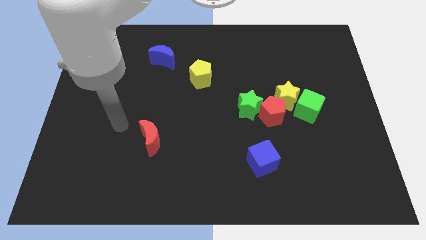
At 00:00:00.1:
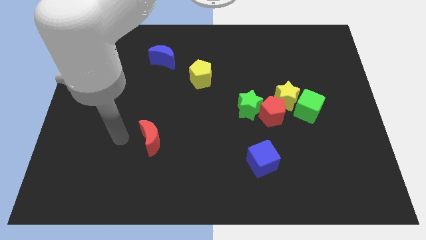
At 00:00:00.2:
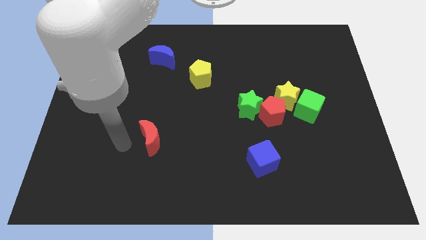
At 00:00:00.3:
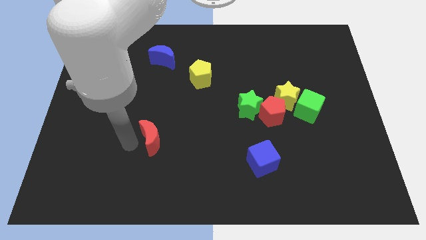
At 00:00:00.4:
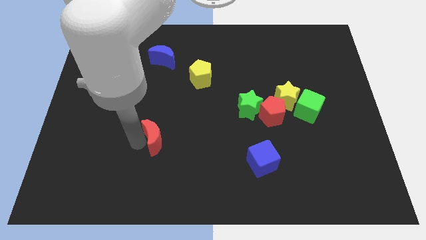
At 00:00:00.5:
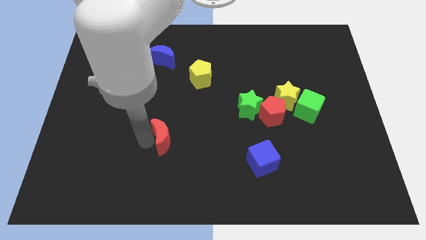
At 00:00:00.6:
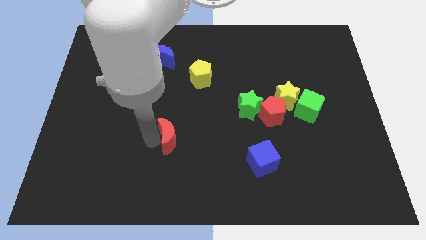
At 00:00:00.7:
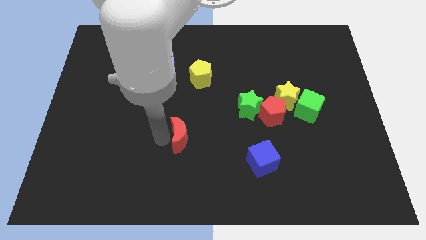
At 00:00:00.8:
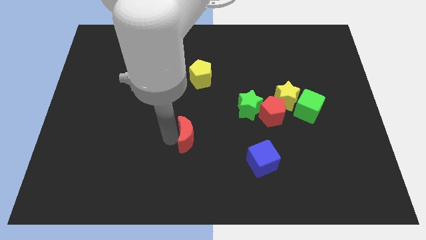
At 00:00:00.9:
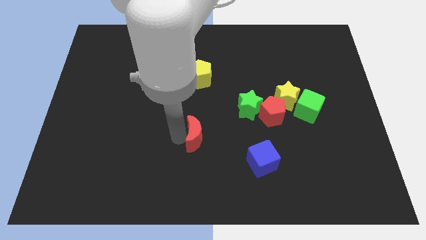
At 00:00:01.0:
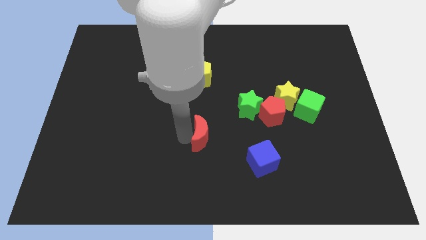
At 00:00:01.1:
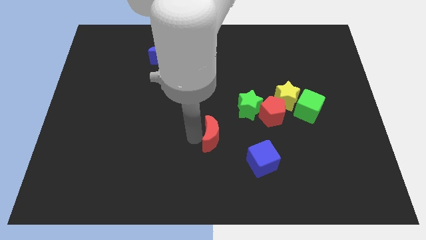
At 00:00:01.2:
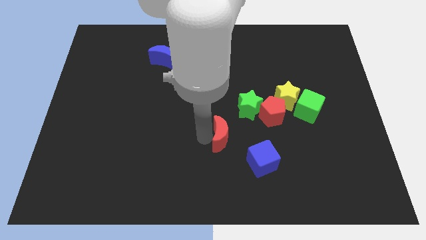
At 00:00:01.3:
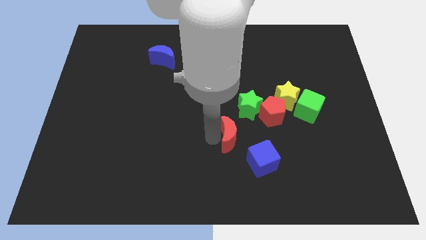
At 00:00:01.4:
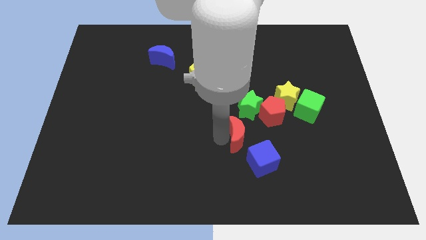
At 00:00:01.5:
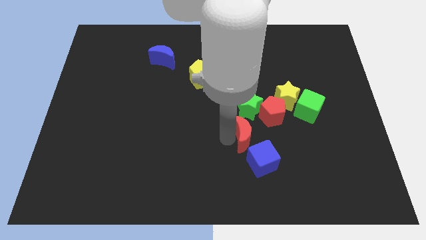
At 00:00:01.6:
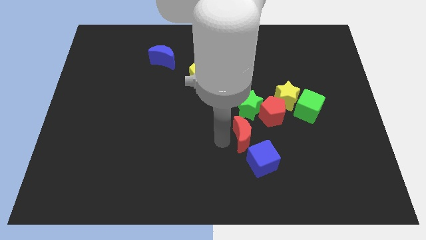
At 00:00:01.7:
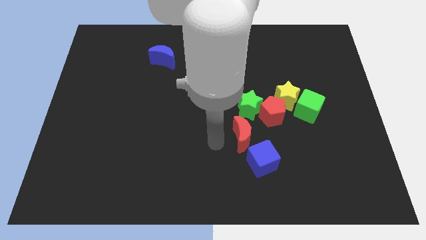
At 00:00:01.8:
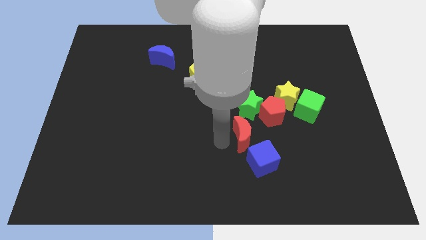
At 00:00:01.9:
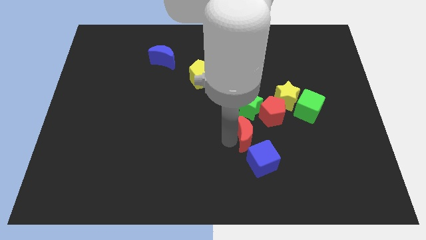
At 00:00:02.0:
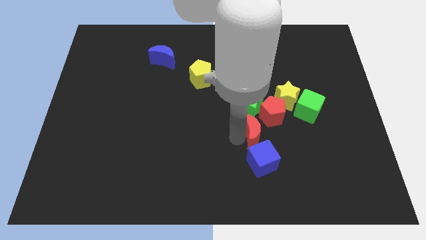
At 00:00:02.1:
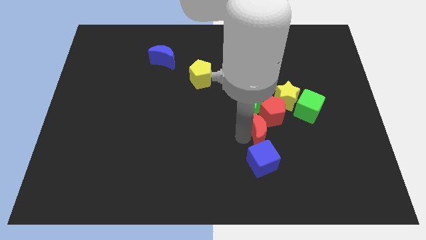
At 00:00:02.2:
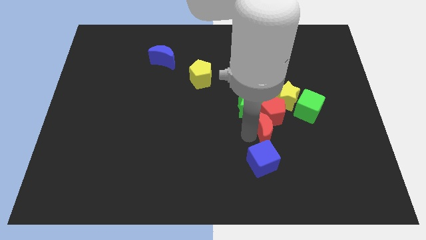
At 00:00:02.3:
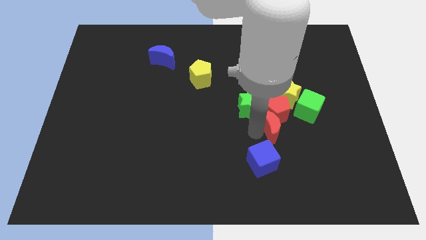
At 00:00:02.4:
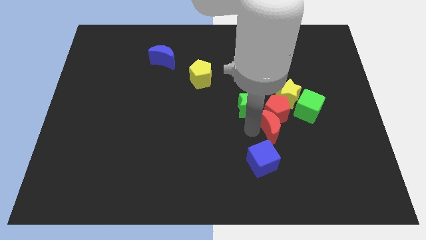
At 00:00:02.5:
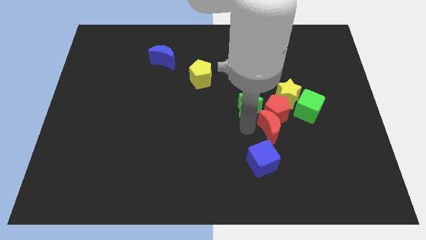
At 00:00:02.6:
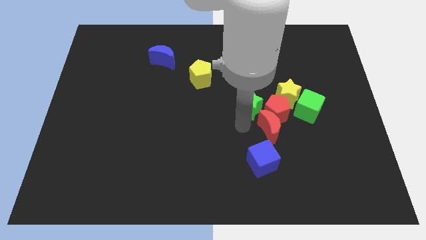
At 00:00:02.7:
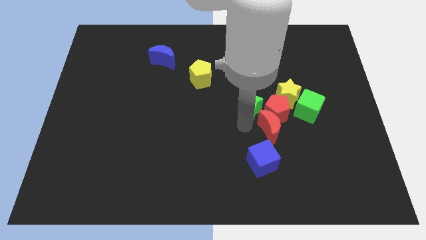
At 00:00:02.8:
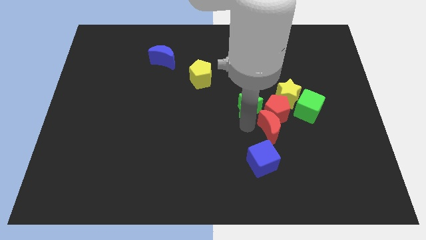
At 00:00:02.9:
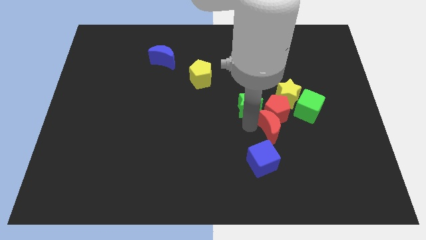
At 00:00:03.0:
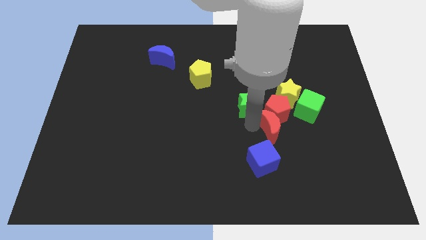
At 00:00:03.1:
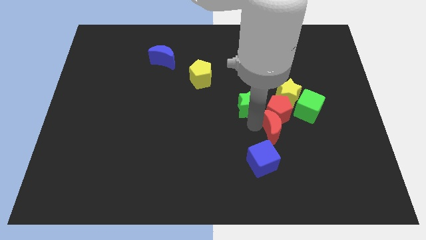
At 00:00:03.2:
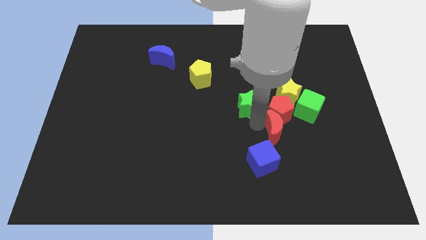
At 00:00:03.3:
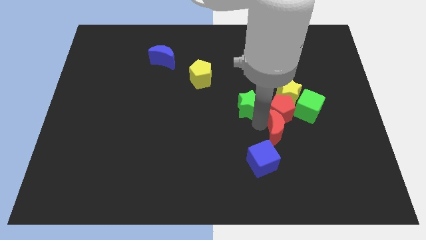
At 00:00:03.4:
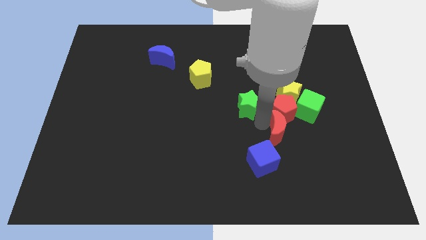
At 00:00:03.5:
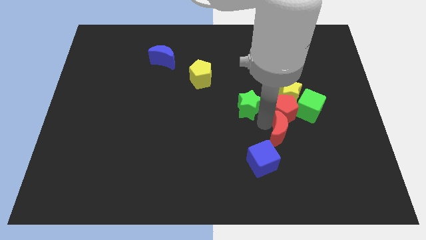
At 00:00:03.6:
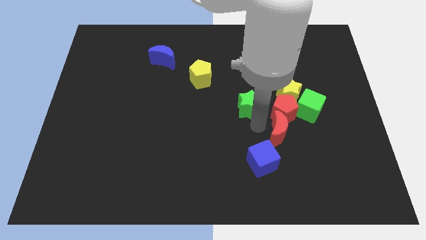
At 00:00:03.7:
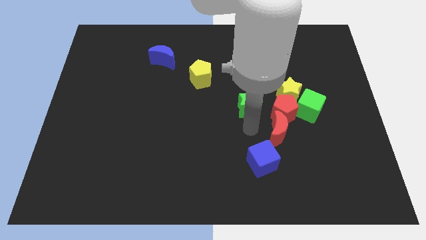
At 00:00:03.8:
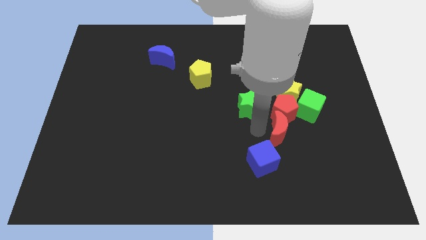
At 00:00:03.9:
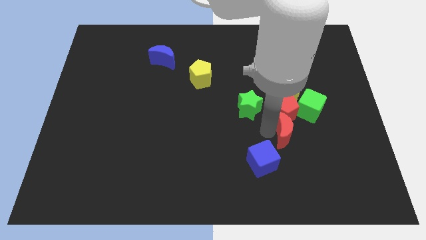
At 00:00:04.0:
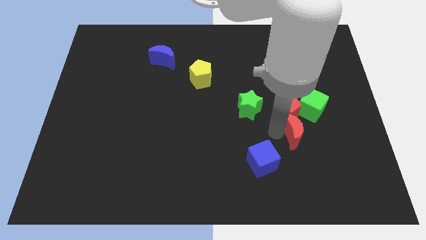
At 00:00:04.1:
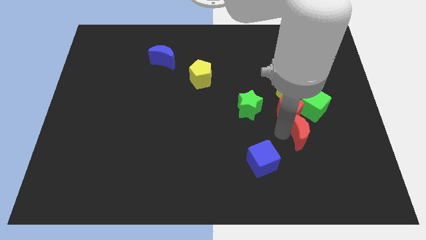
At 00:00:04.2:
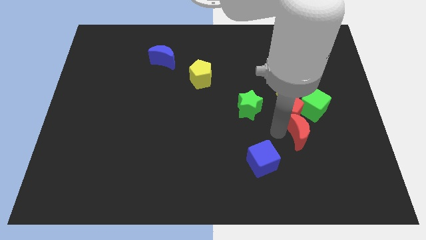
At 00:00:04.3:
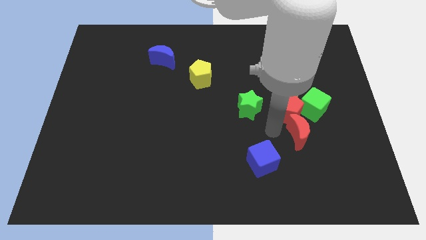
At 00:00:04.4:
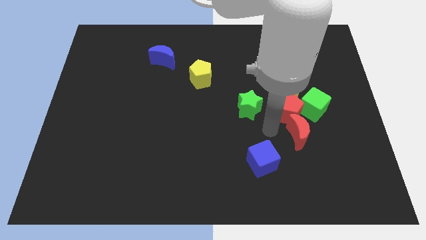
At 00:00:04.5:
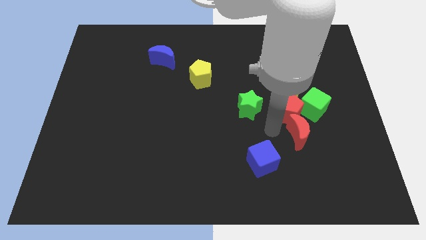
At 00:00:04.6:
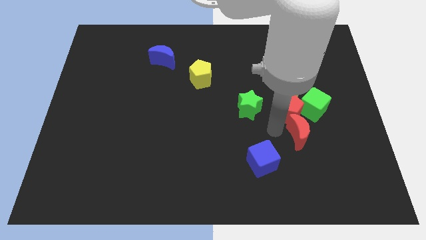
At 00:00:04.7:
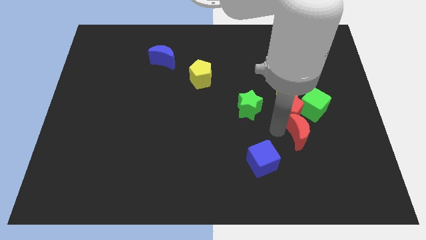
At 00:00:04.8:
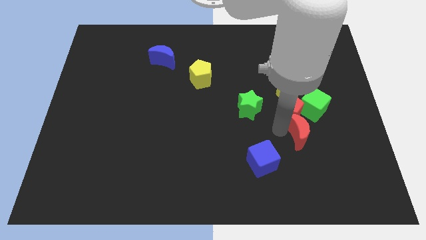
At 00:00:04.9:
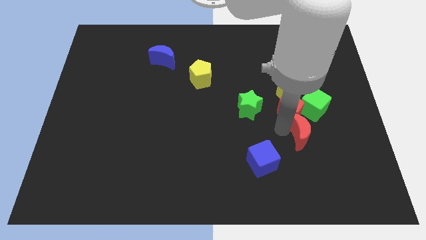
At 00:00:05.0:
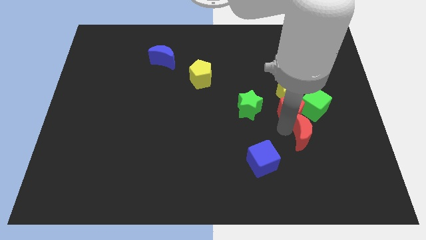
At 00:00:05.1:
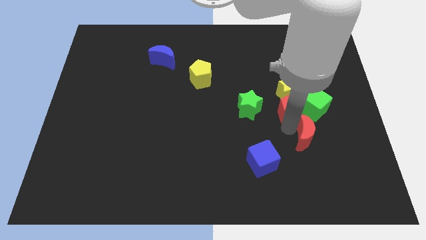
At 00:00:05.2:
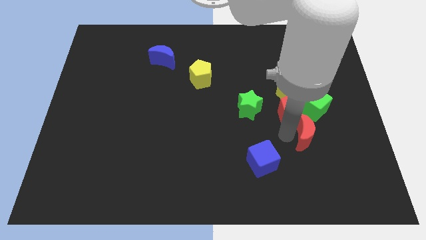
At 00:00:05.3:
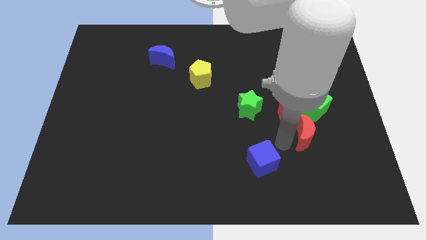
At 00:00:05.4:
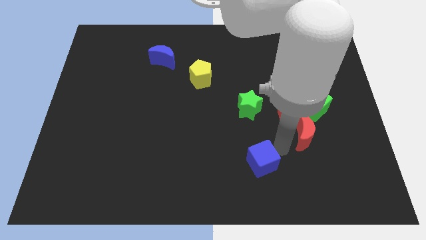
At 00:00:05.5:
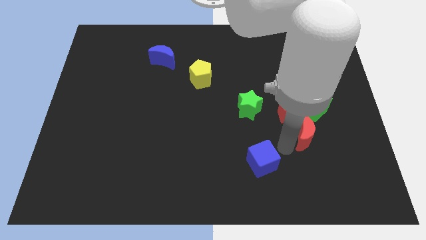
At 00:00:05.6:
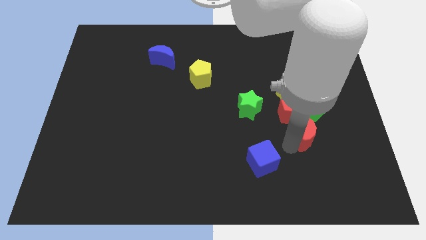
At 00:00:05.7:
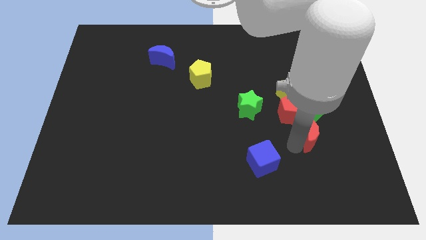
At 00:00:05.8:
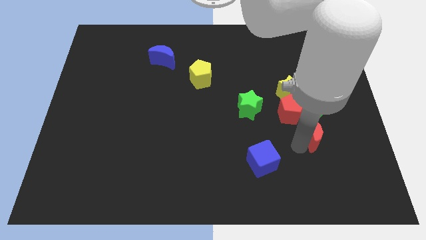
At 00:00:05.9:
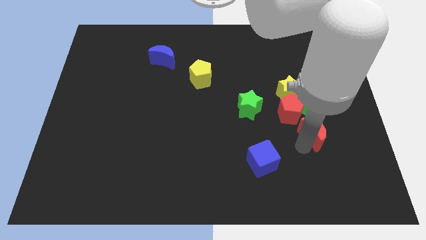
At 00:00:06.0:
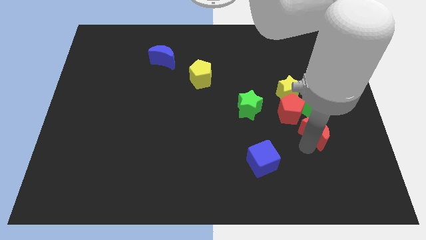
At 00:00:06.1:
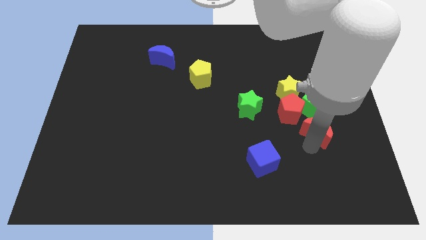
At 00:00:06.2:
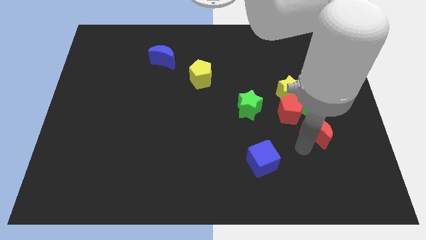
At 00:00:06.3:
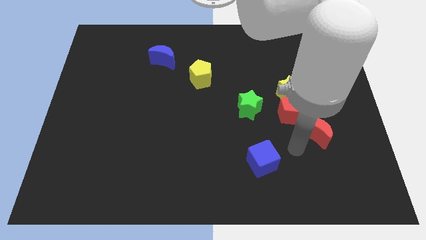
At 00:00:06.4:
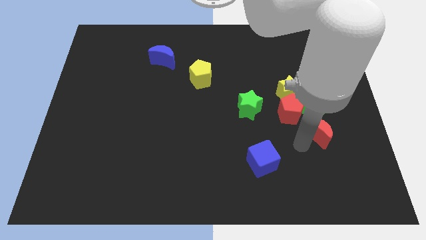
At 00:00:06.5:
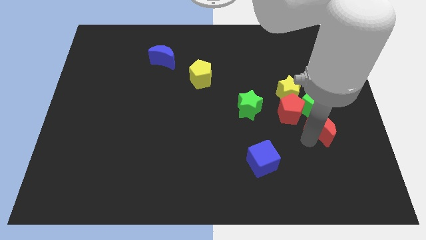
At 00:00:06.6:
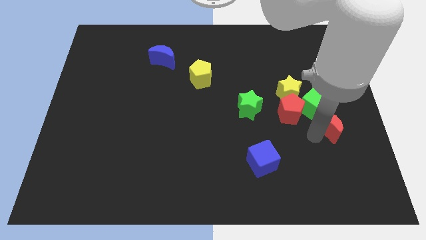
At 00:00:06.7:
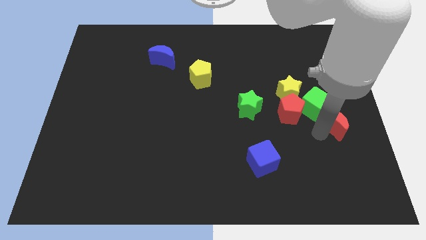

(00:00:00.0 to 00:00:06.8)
slide the red moon to the right side of the board

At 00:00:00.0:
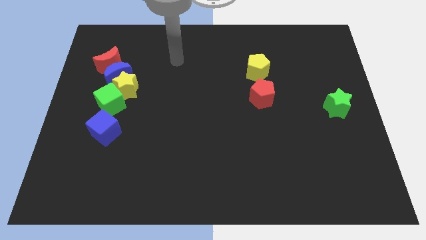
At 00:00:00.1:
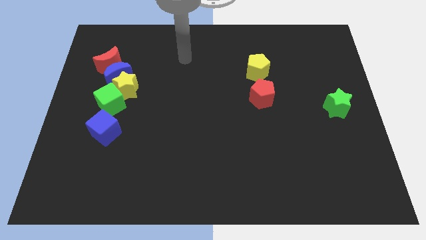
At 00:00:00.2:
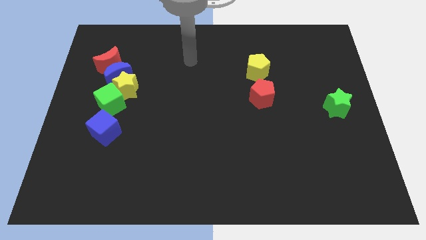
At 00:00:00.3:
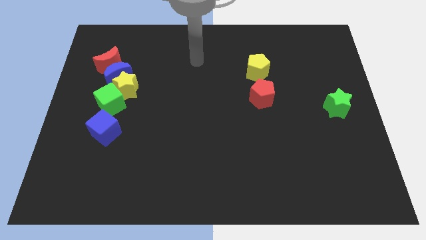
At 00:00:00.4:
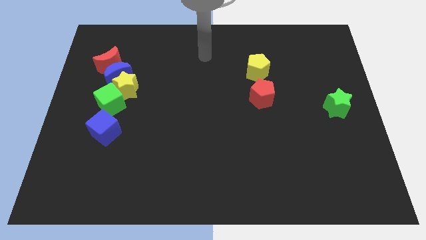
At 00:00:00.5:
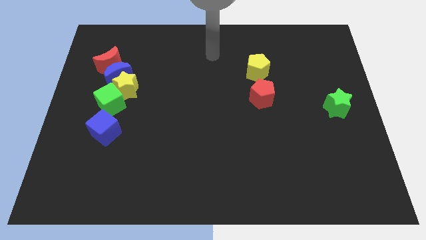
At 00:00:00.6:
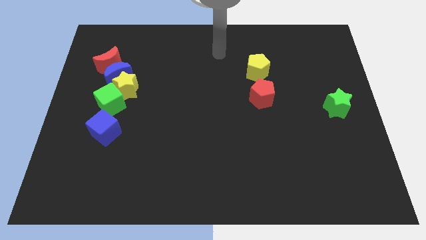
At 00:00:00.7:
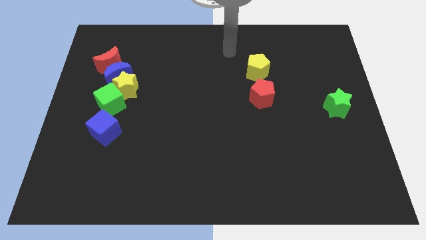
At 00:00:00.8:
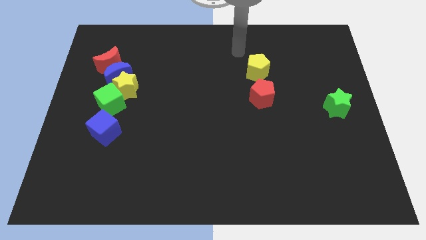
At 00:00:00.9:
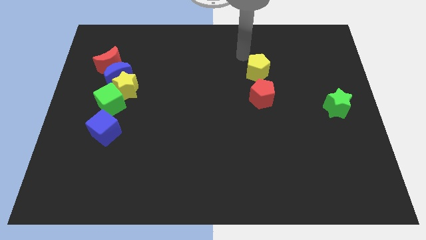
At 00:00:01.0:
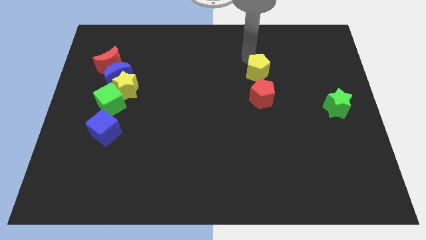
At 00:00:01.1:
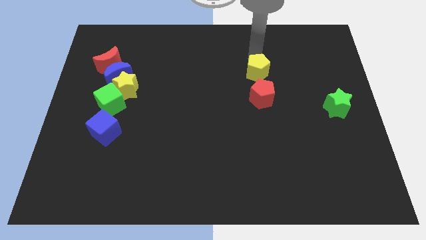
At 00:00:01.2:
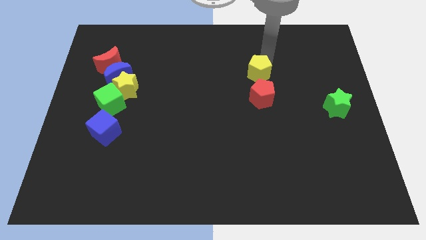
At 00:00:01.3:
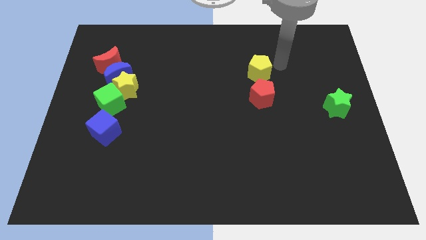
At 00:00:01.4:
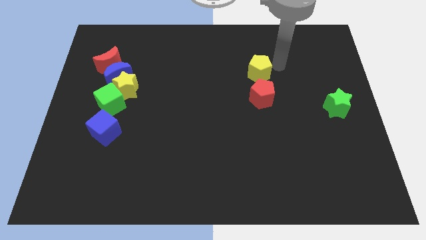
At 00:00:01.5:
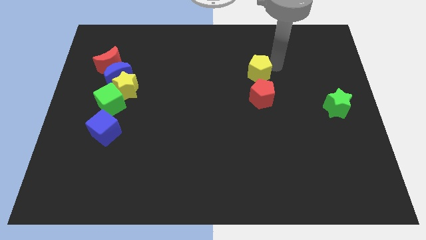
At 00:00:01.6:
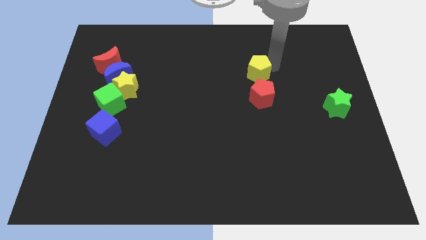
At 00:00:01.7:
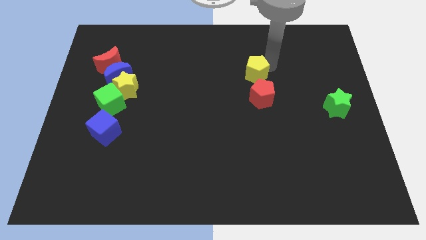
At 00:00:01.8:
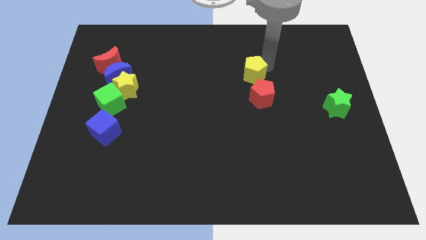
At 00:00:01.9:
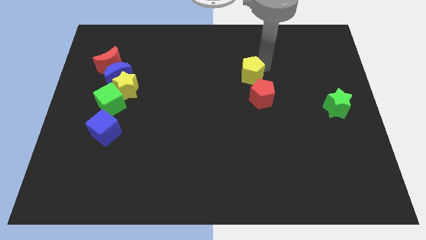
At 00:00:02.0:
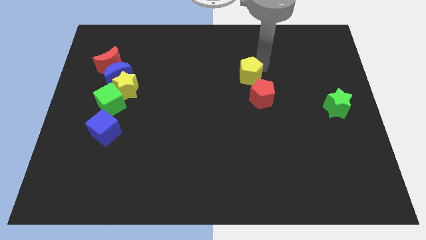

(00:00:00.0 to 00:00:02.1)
put the yellow pentagon to the center of the board
